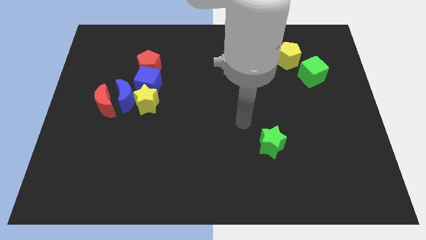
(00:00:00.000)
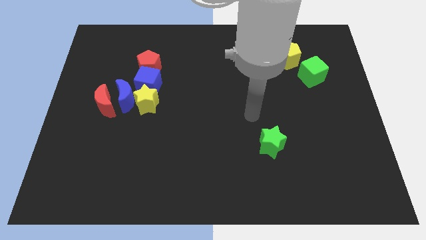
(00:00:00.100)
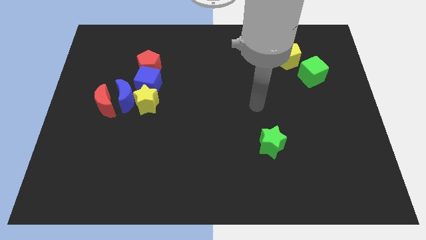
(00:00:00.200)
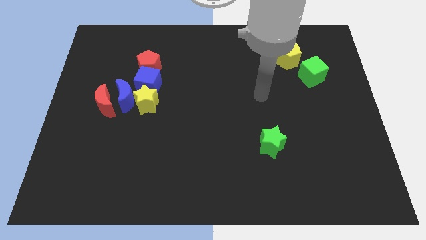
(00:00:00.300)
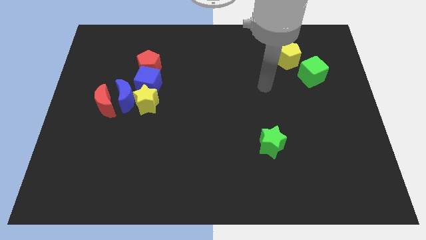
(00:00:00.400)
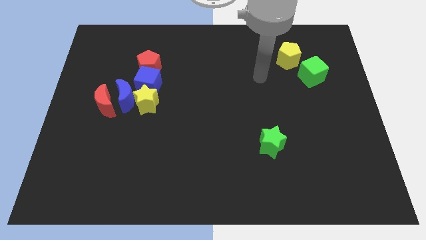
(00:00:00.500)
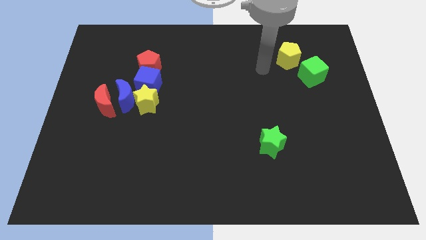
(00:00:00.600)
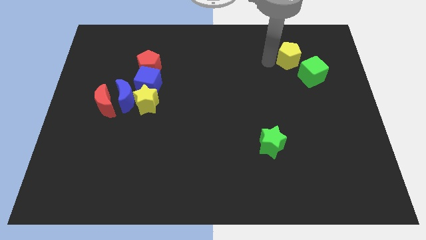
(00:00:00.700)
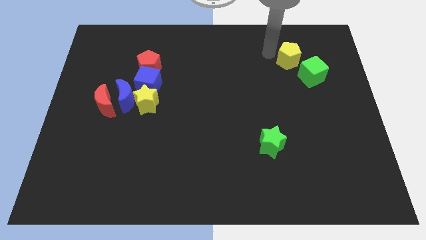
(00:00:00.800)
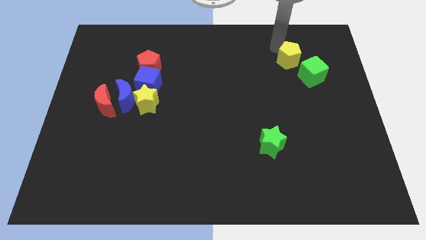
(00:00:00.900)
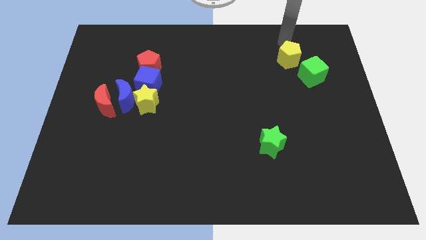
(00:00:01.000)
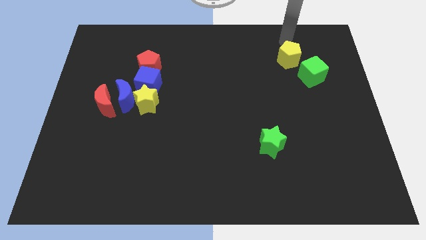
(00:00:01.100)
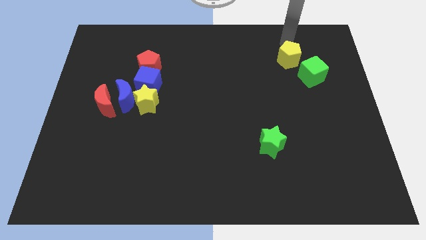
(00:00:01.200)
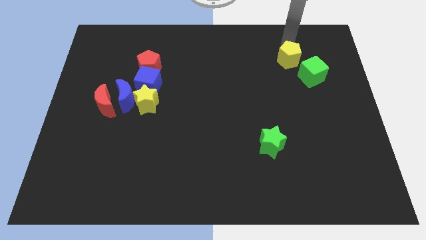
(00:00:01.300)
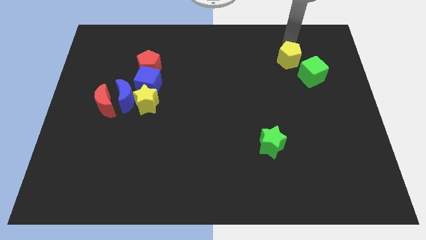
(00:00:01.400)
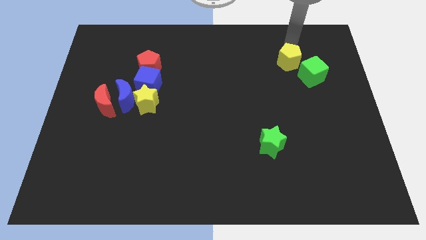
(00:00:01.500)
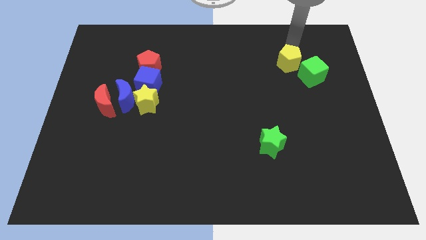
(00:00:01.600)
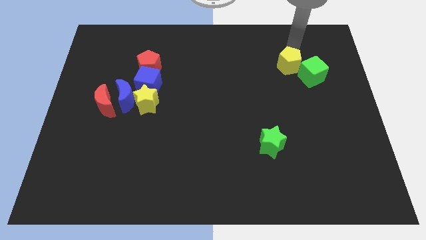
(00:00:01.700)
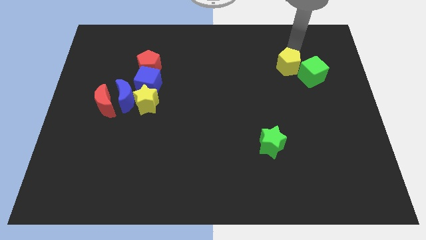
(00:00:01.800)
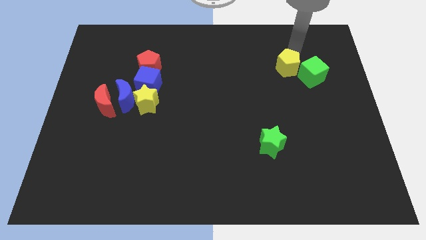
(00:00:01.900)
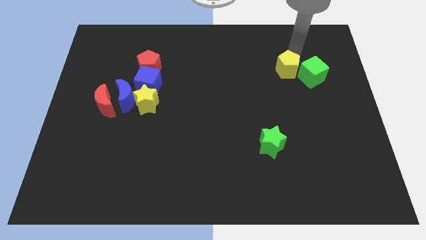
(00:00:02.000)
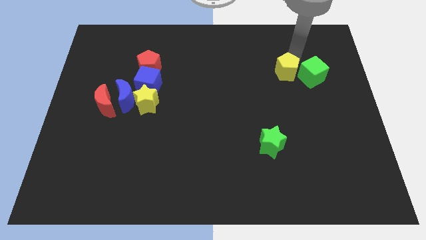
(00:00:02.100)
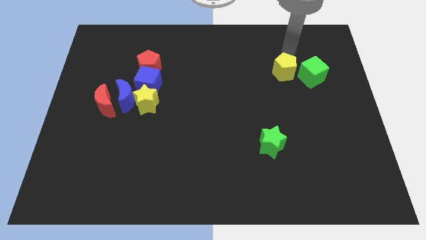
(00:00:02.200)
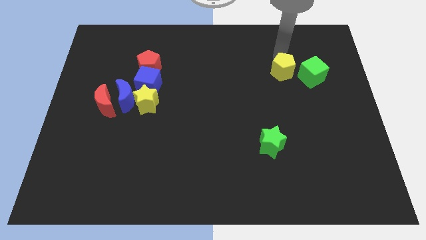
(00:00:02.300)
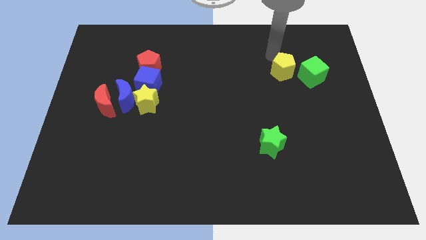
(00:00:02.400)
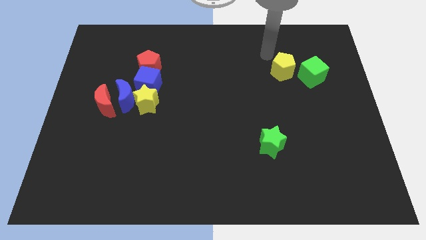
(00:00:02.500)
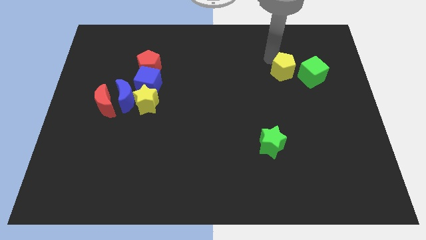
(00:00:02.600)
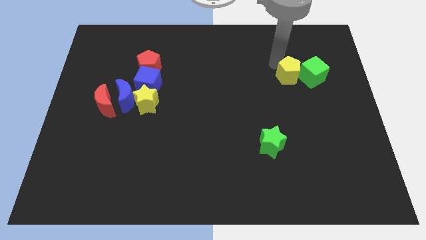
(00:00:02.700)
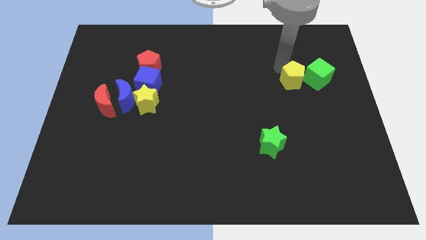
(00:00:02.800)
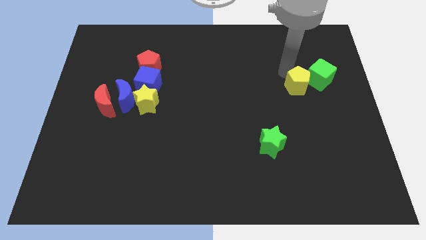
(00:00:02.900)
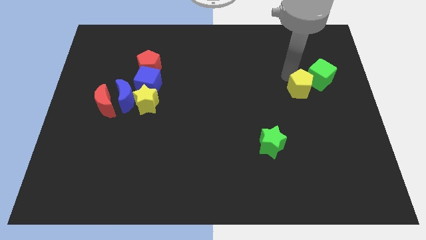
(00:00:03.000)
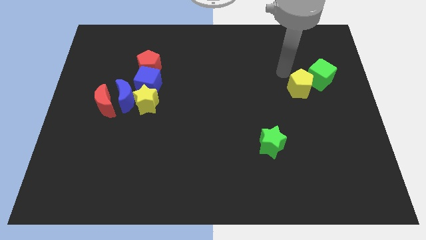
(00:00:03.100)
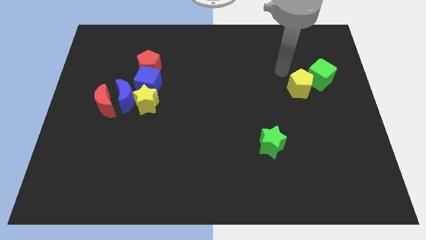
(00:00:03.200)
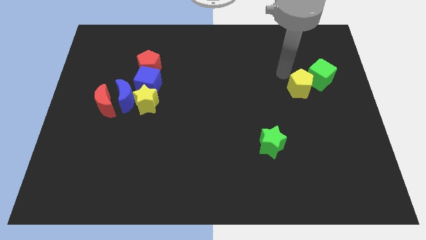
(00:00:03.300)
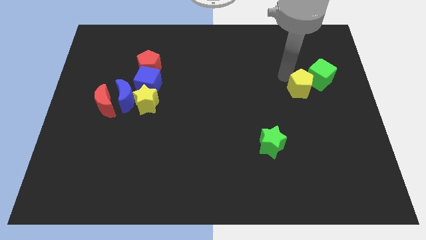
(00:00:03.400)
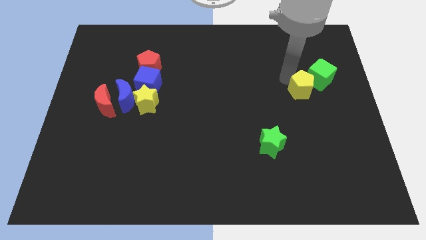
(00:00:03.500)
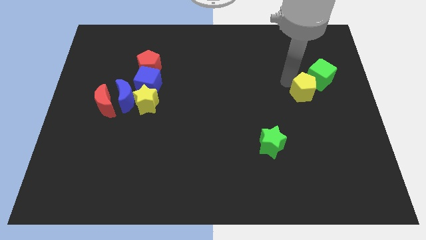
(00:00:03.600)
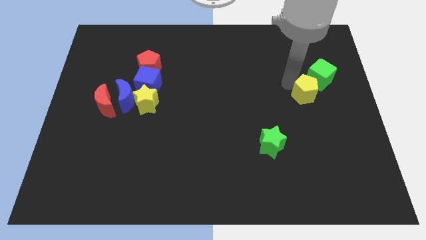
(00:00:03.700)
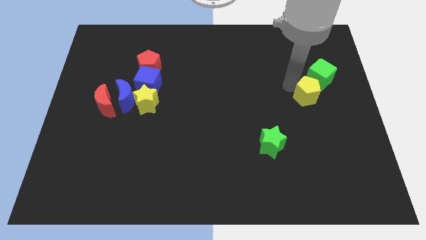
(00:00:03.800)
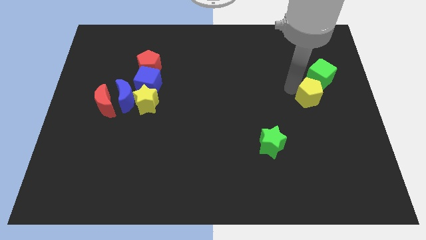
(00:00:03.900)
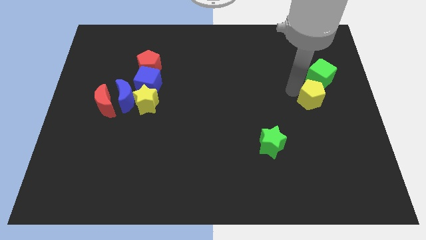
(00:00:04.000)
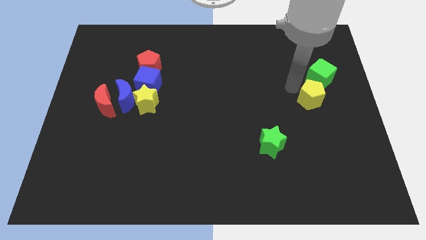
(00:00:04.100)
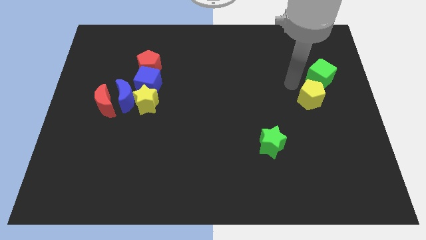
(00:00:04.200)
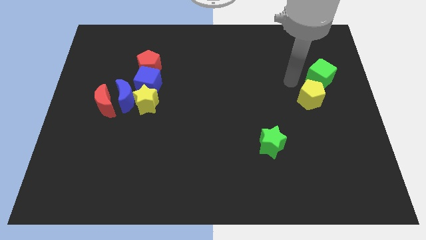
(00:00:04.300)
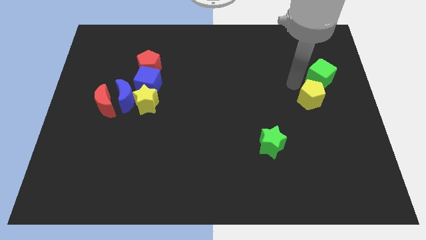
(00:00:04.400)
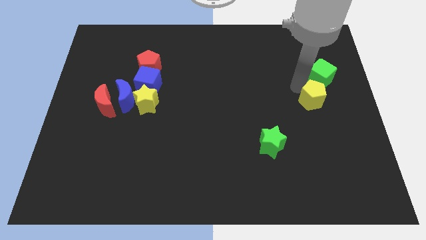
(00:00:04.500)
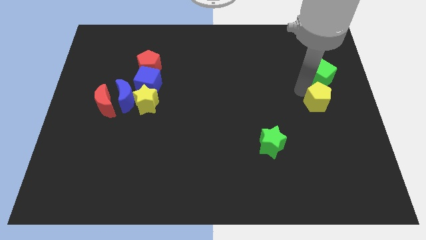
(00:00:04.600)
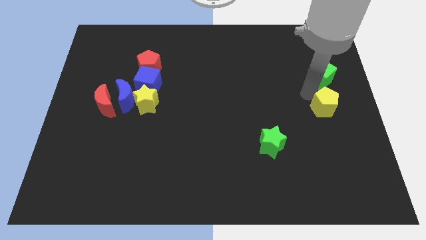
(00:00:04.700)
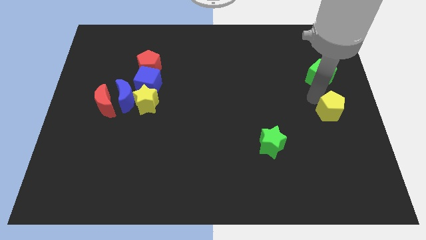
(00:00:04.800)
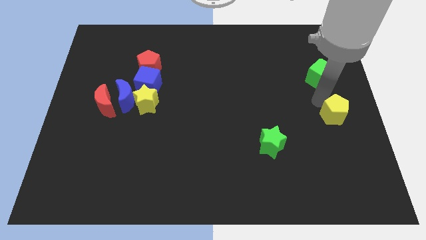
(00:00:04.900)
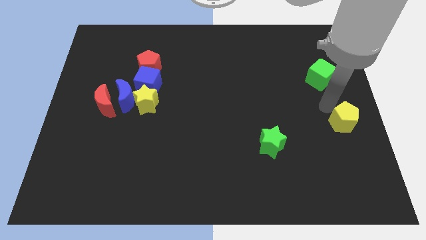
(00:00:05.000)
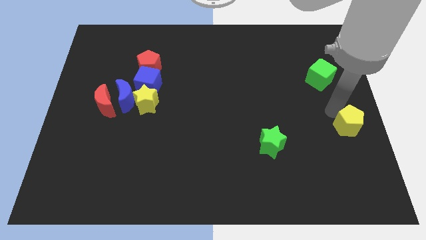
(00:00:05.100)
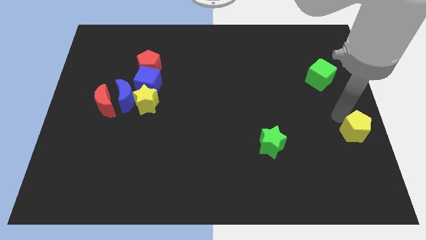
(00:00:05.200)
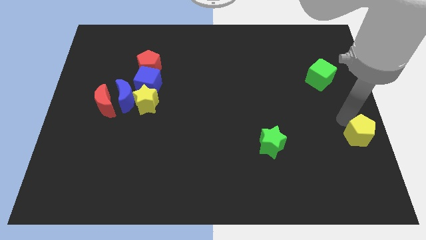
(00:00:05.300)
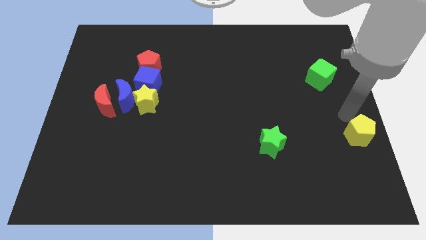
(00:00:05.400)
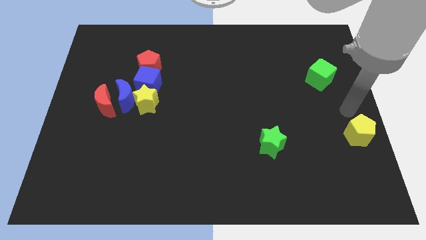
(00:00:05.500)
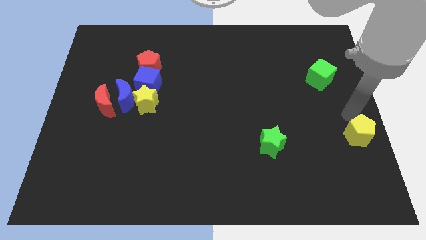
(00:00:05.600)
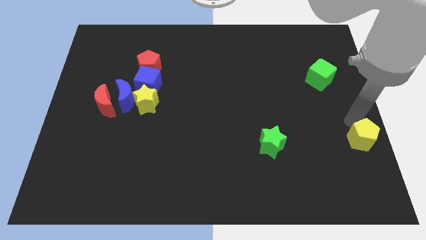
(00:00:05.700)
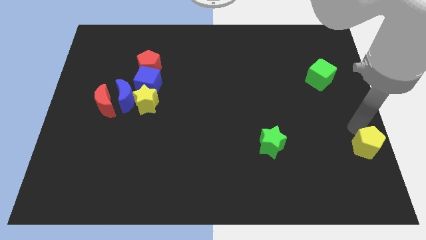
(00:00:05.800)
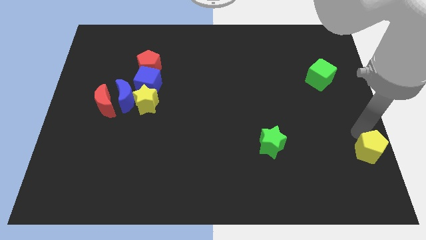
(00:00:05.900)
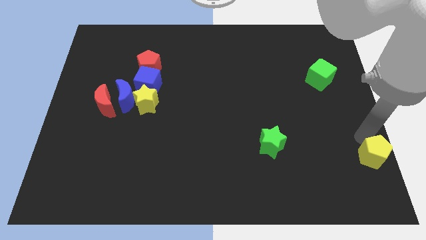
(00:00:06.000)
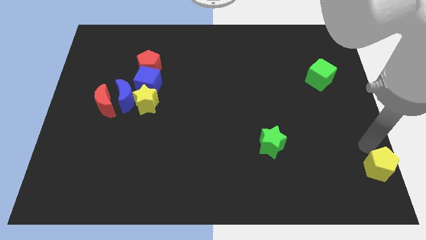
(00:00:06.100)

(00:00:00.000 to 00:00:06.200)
slide the yellow pentagon to the bottom right of the board
